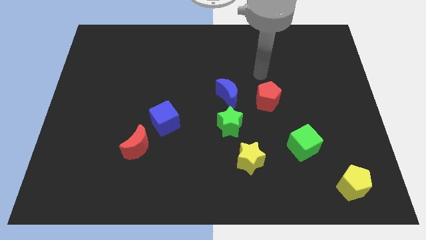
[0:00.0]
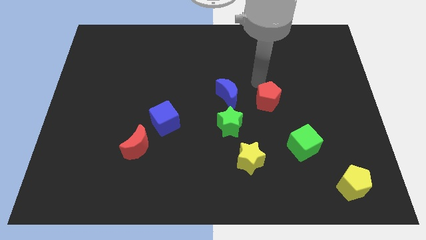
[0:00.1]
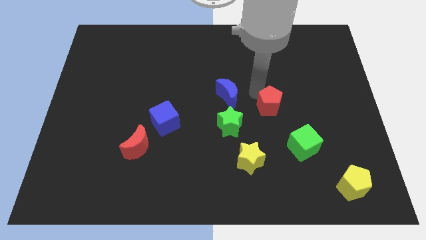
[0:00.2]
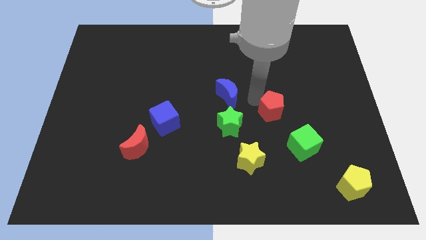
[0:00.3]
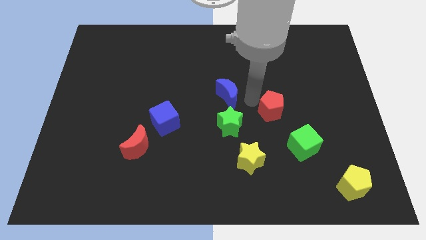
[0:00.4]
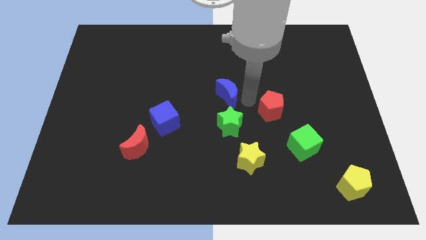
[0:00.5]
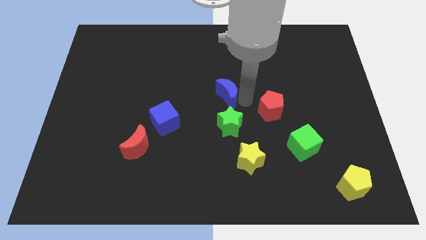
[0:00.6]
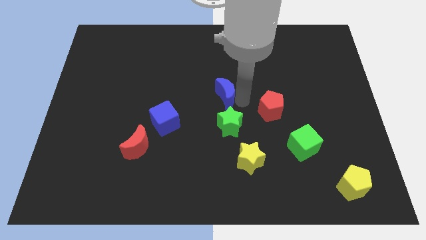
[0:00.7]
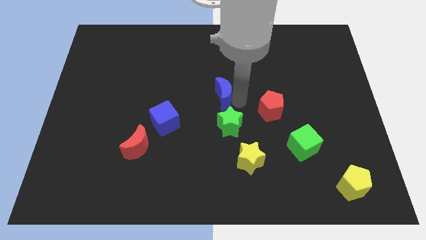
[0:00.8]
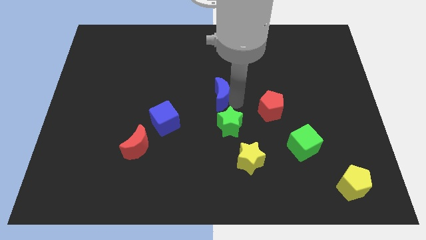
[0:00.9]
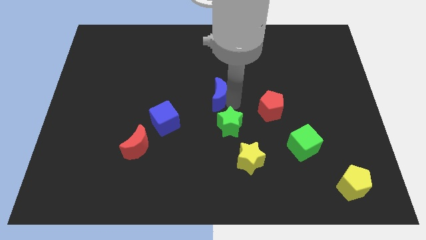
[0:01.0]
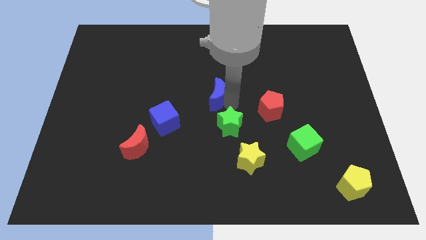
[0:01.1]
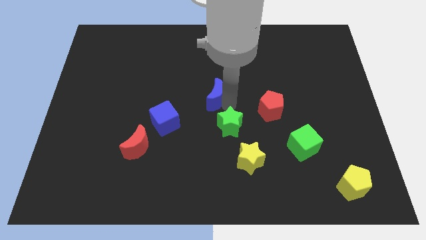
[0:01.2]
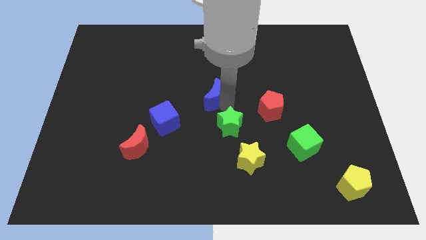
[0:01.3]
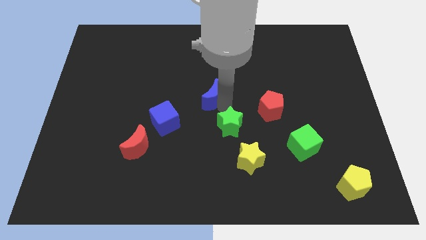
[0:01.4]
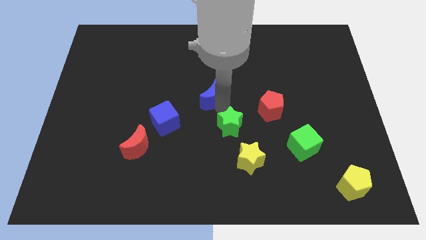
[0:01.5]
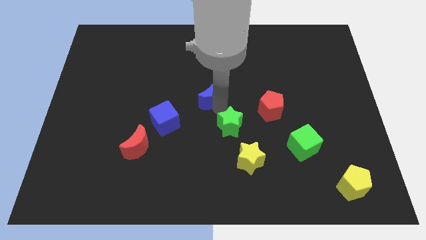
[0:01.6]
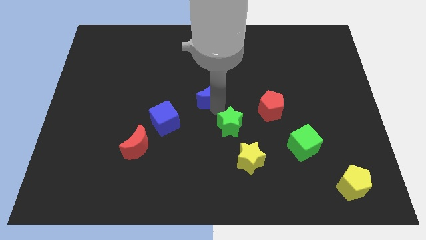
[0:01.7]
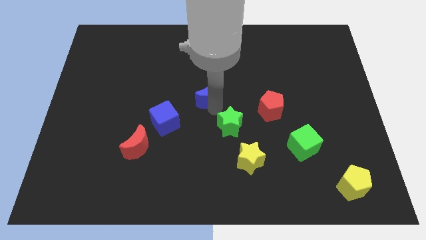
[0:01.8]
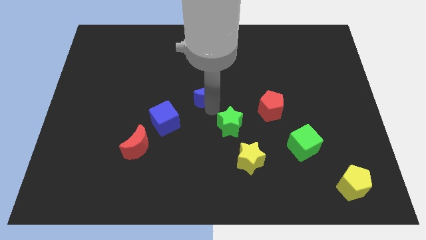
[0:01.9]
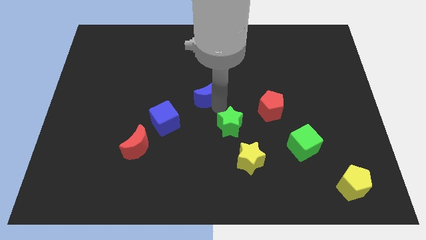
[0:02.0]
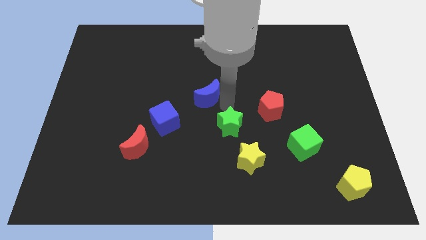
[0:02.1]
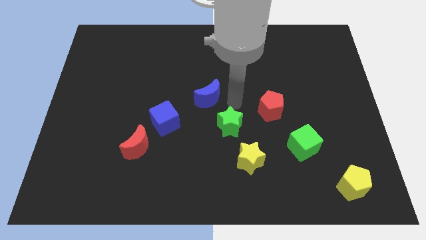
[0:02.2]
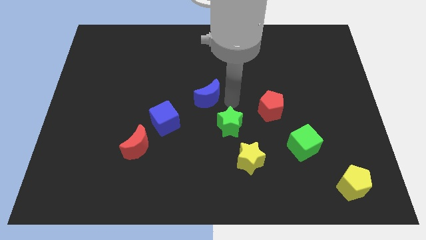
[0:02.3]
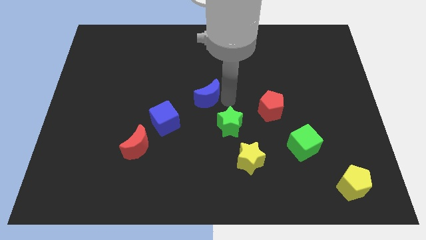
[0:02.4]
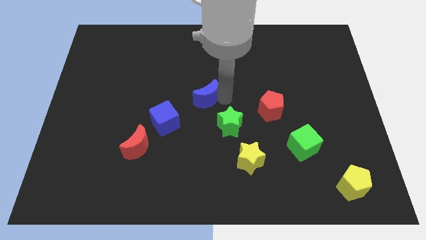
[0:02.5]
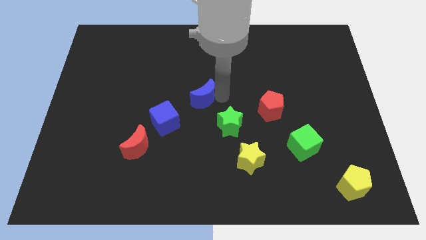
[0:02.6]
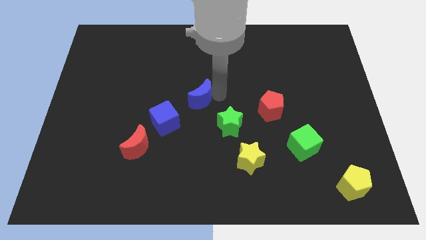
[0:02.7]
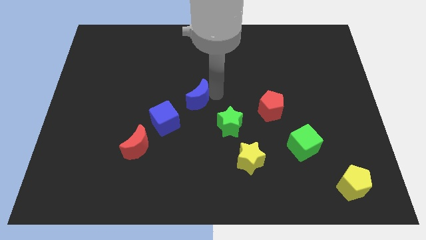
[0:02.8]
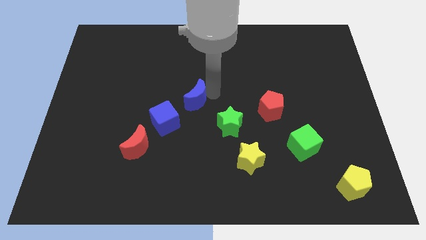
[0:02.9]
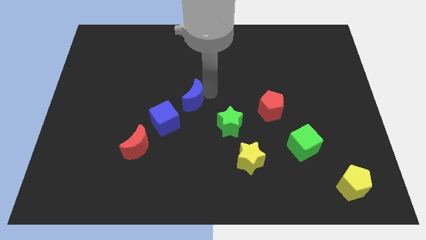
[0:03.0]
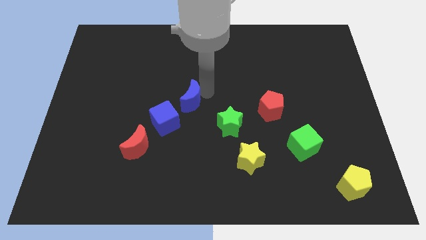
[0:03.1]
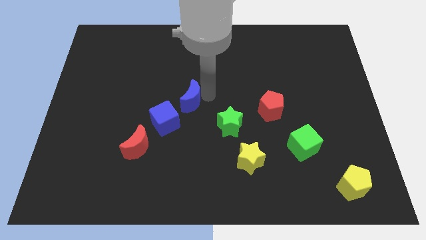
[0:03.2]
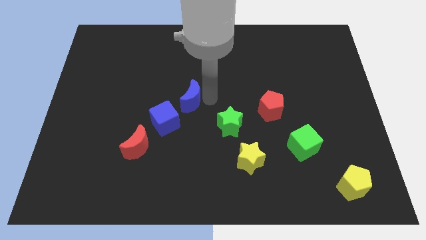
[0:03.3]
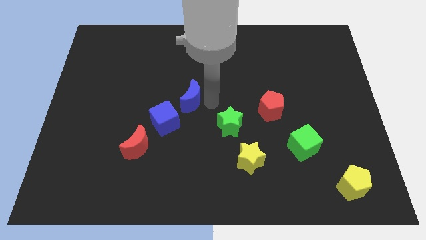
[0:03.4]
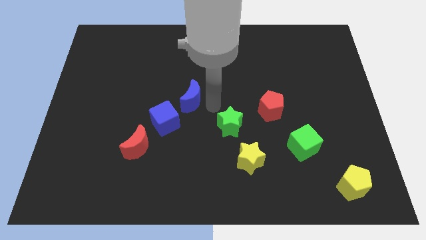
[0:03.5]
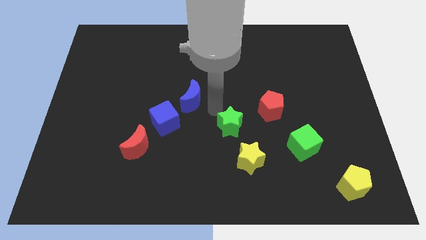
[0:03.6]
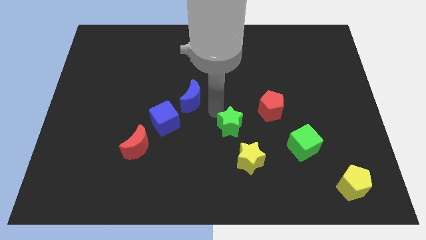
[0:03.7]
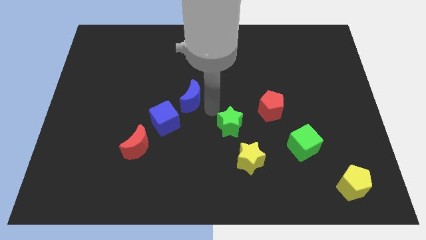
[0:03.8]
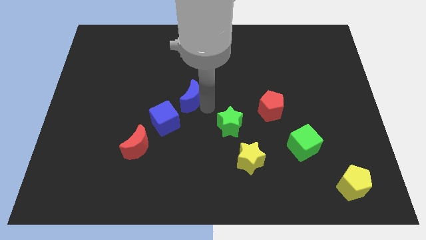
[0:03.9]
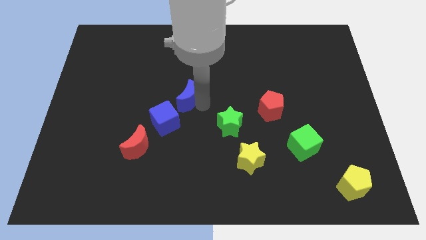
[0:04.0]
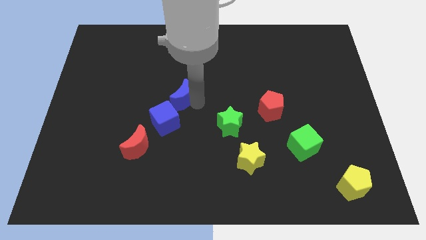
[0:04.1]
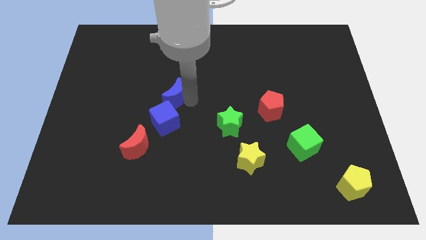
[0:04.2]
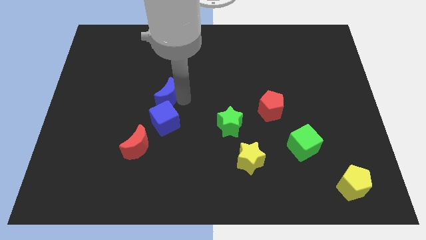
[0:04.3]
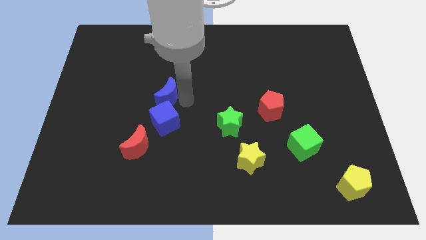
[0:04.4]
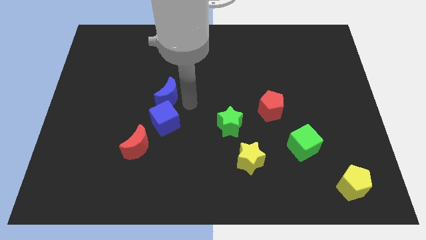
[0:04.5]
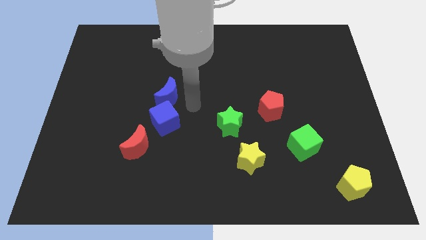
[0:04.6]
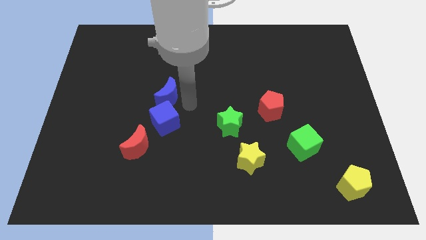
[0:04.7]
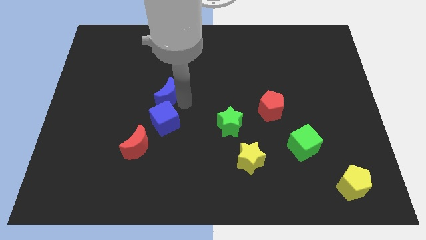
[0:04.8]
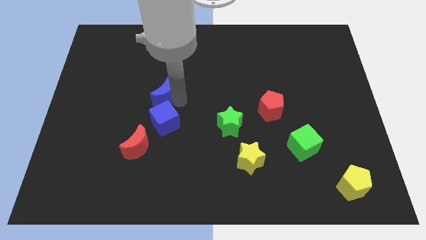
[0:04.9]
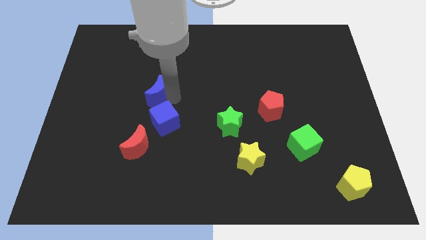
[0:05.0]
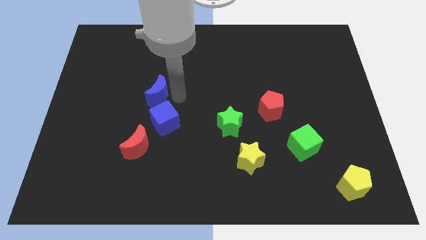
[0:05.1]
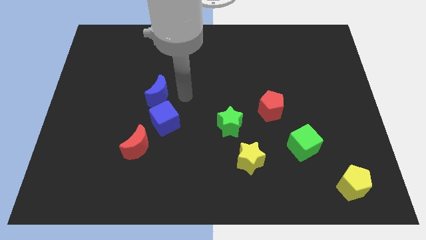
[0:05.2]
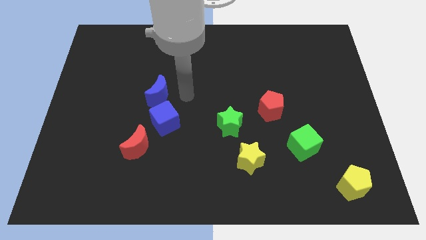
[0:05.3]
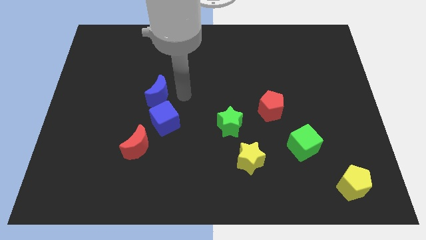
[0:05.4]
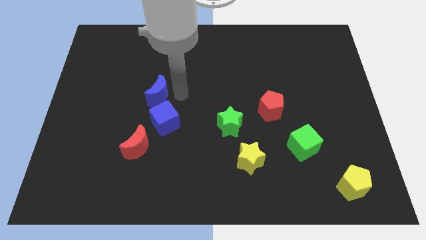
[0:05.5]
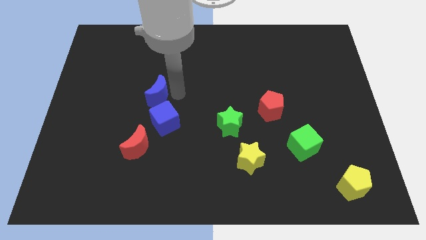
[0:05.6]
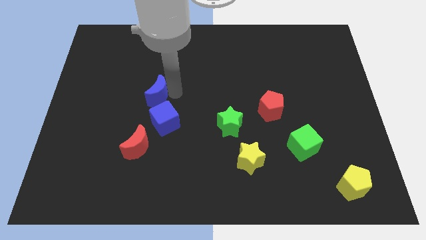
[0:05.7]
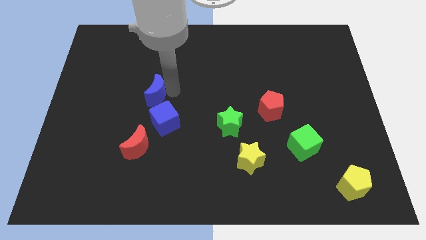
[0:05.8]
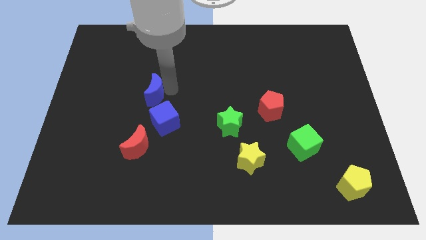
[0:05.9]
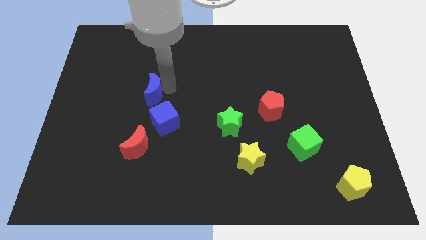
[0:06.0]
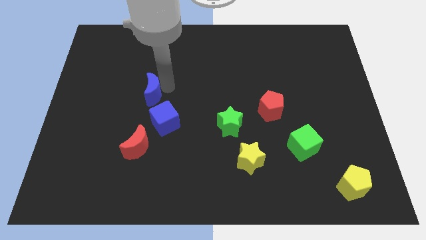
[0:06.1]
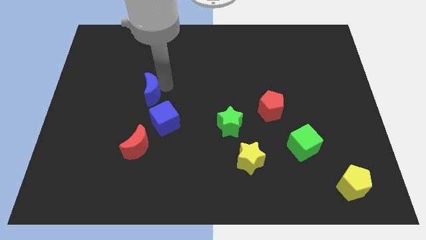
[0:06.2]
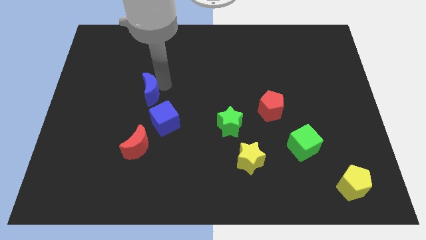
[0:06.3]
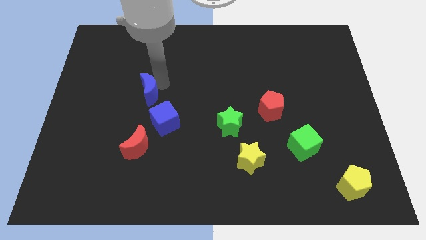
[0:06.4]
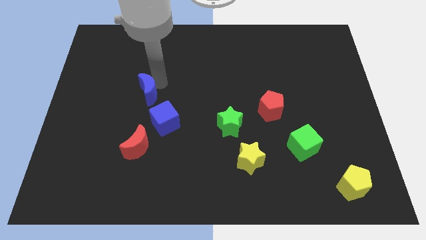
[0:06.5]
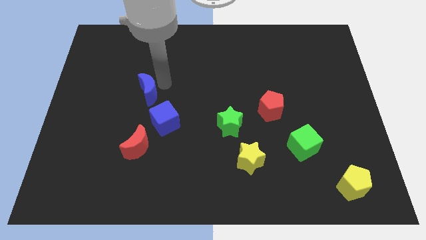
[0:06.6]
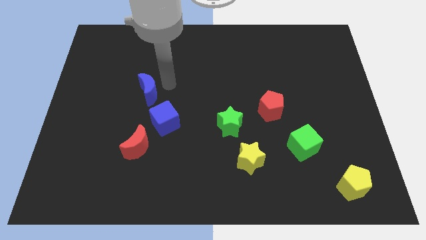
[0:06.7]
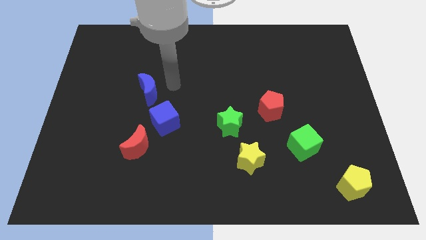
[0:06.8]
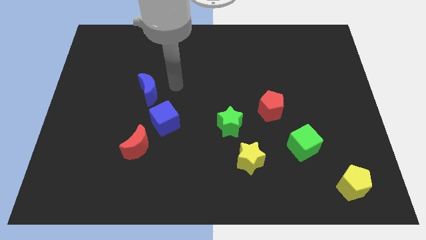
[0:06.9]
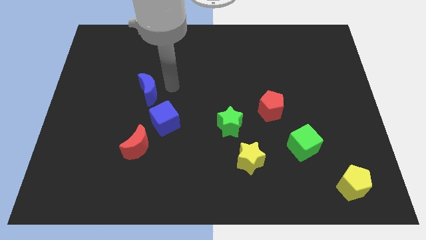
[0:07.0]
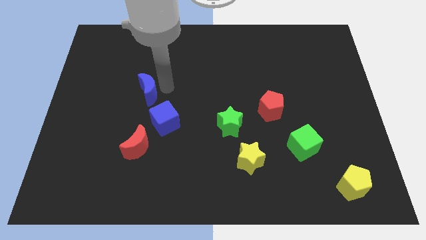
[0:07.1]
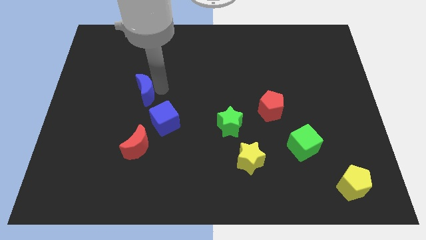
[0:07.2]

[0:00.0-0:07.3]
slide the blue moon to the left

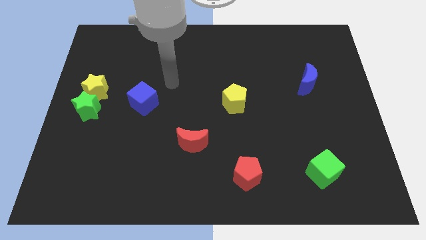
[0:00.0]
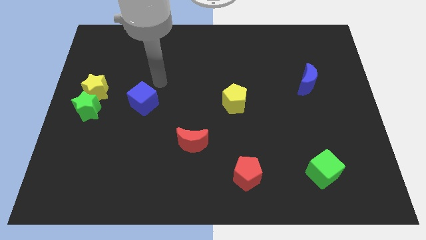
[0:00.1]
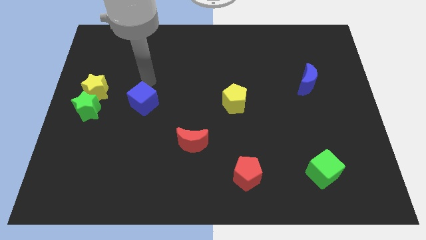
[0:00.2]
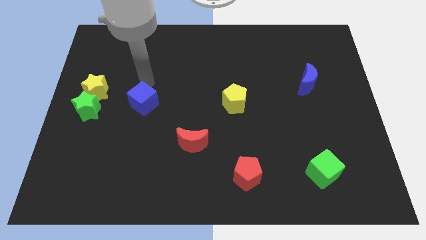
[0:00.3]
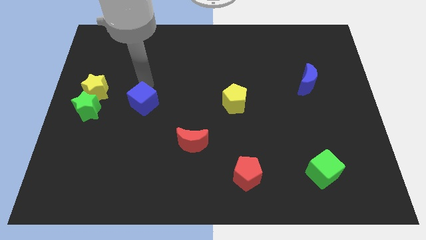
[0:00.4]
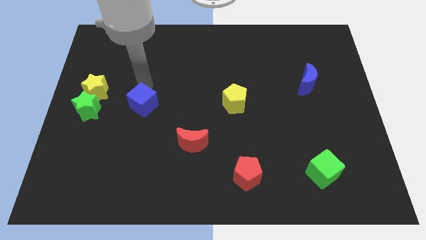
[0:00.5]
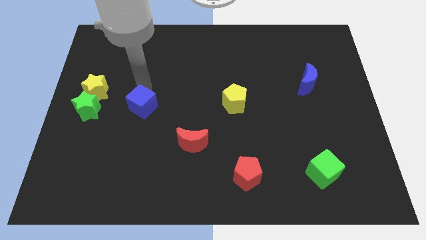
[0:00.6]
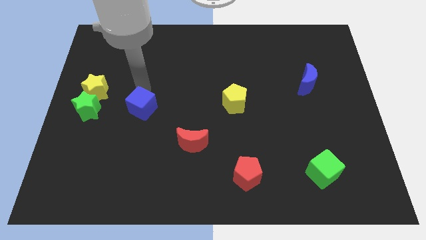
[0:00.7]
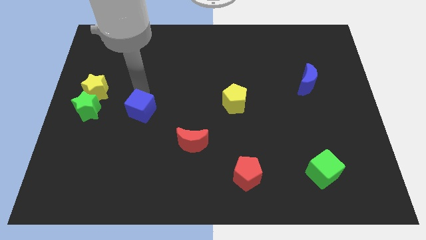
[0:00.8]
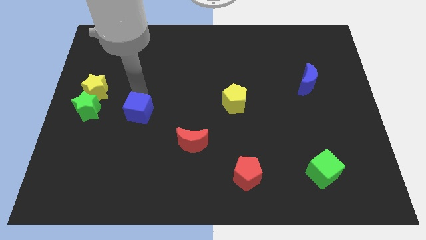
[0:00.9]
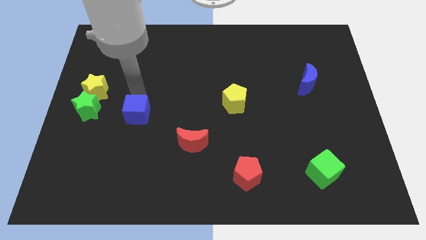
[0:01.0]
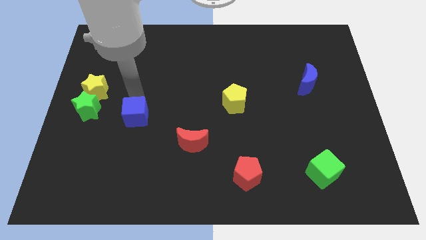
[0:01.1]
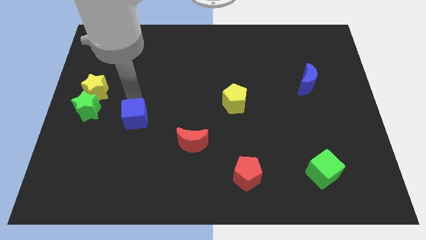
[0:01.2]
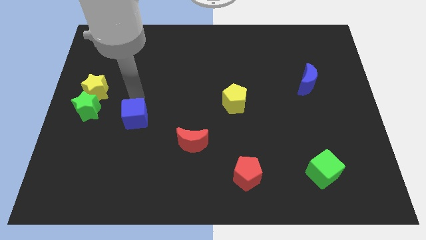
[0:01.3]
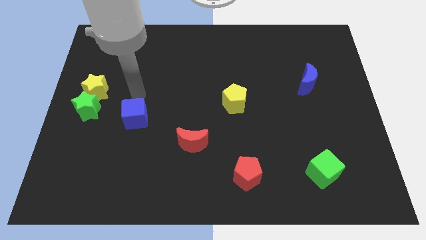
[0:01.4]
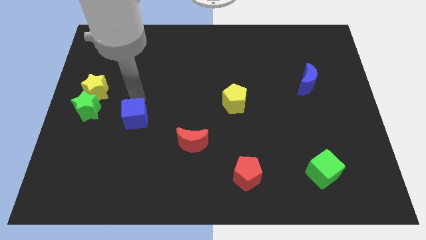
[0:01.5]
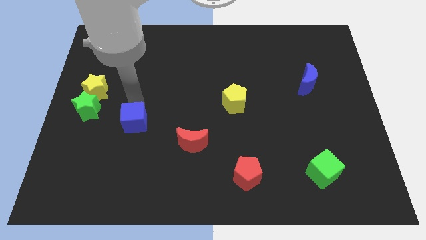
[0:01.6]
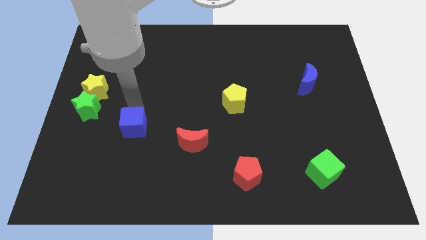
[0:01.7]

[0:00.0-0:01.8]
slightly slide the blue cube downwards
